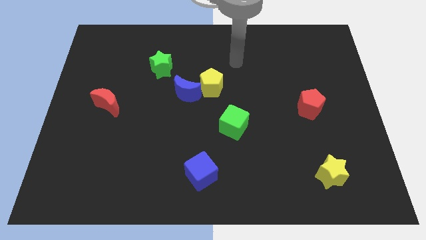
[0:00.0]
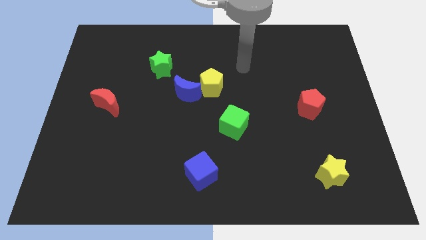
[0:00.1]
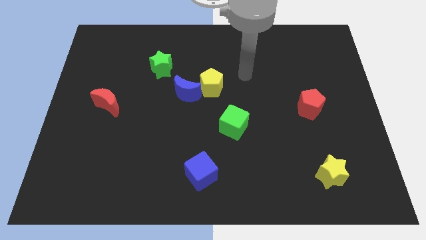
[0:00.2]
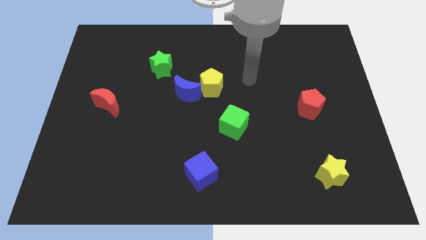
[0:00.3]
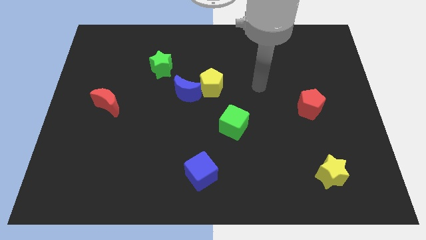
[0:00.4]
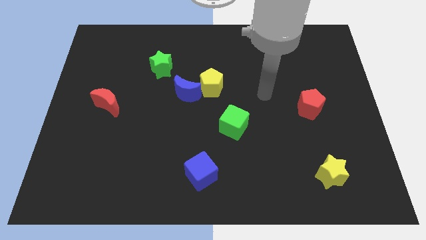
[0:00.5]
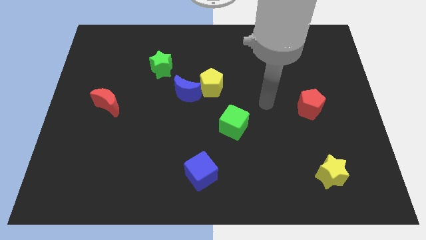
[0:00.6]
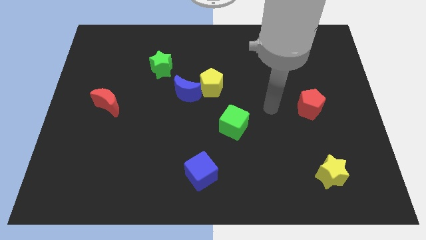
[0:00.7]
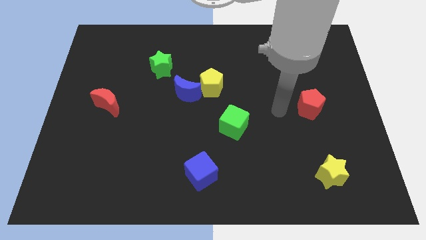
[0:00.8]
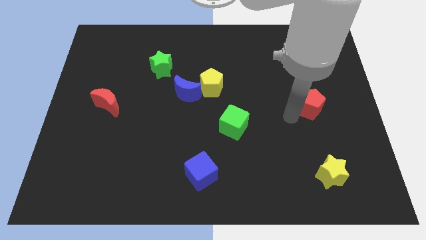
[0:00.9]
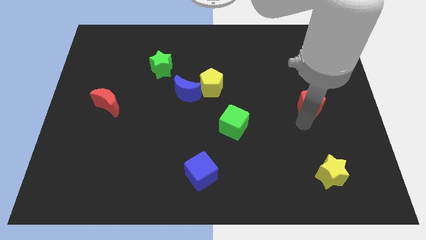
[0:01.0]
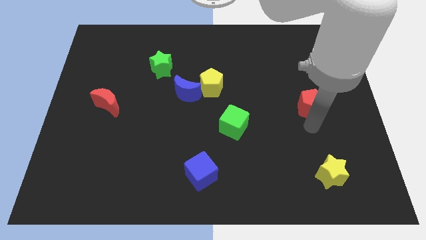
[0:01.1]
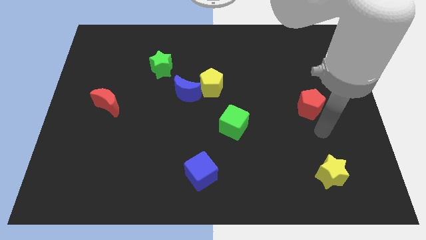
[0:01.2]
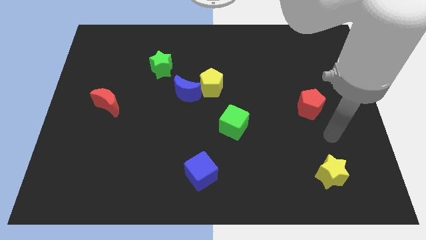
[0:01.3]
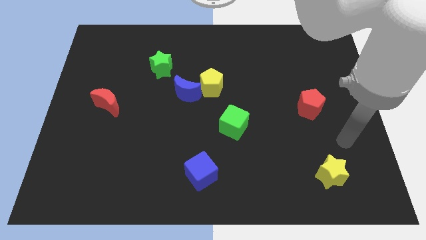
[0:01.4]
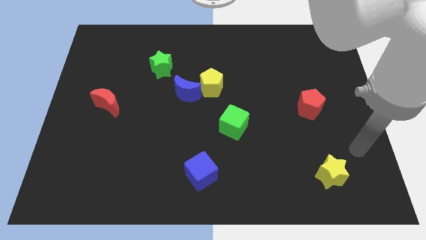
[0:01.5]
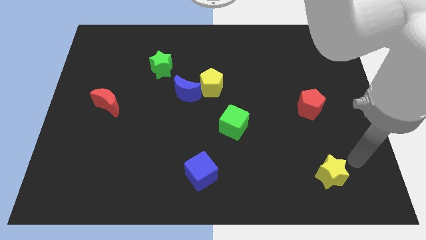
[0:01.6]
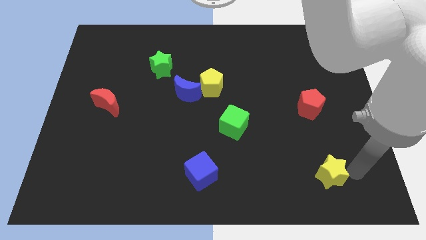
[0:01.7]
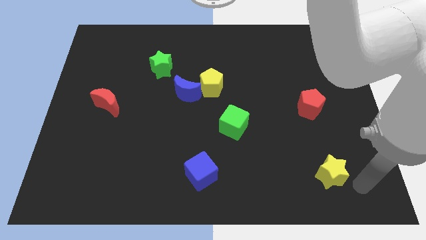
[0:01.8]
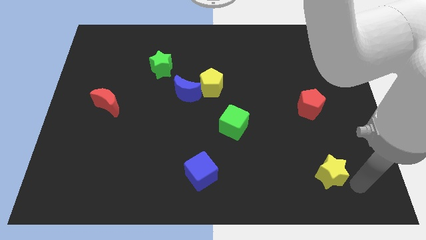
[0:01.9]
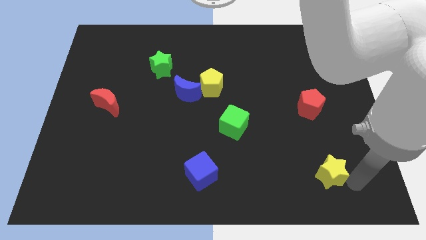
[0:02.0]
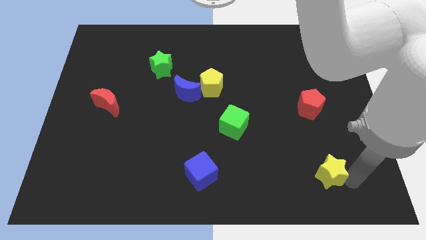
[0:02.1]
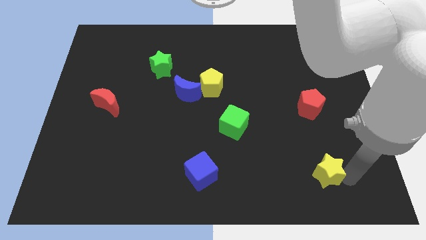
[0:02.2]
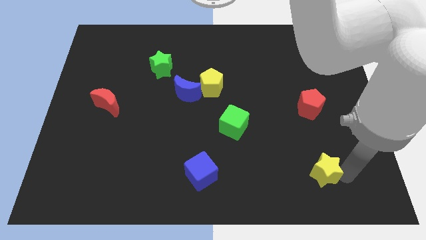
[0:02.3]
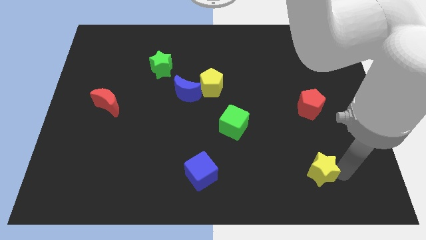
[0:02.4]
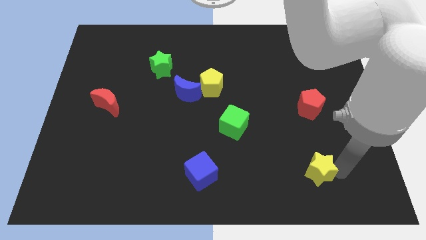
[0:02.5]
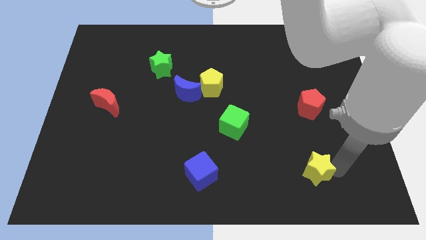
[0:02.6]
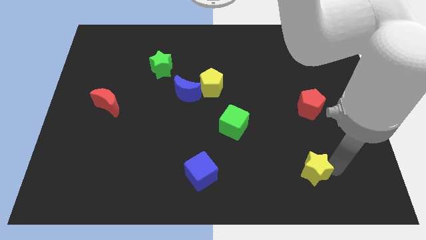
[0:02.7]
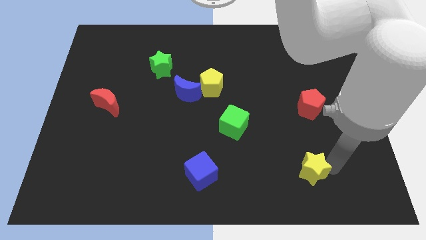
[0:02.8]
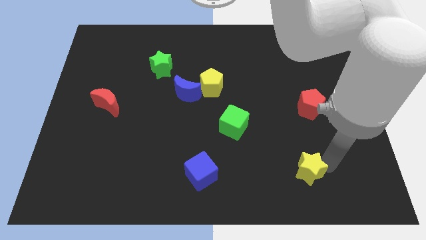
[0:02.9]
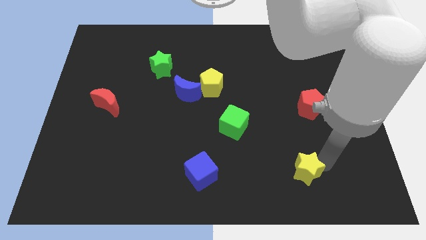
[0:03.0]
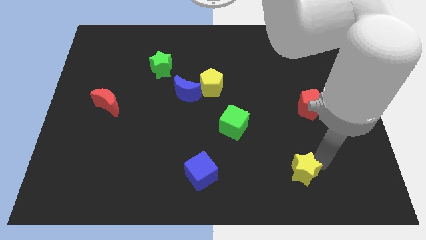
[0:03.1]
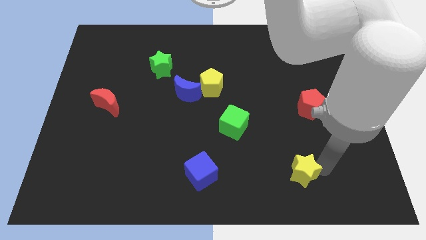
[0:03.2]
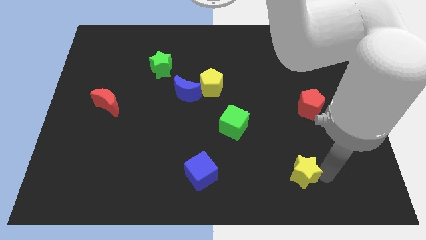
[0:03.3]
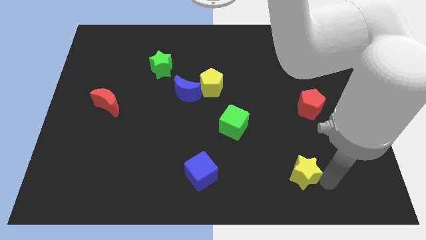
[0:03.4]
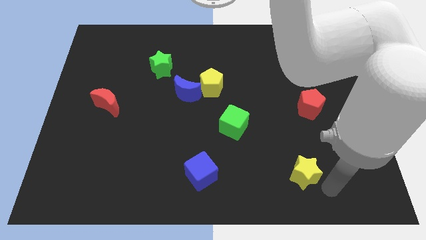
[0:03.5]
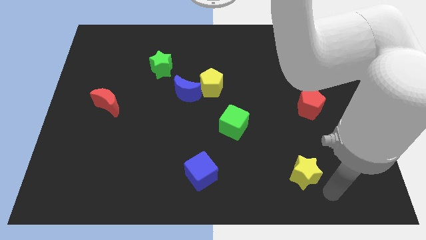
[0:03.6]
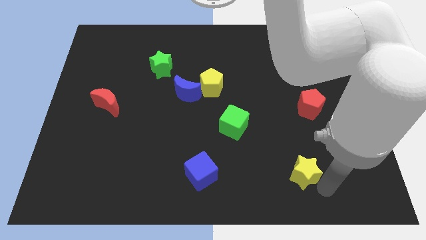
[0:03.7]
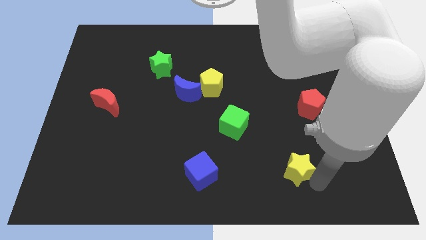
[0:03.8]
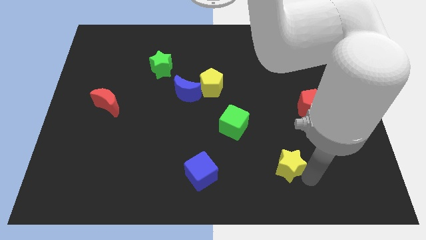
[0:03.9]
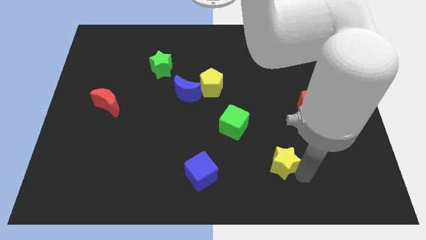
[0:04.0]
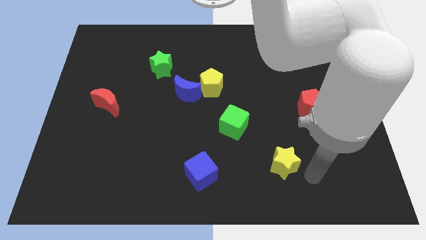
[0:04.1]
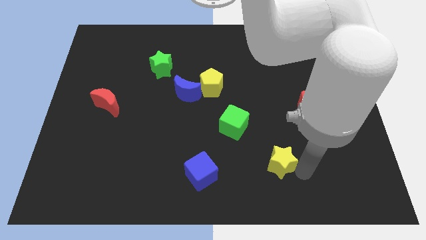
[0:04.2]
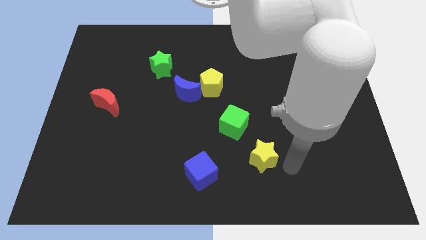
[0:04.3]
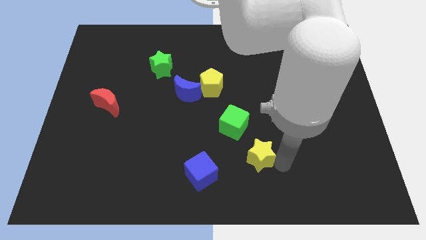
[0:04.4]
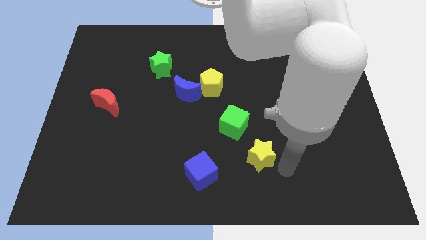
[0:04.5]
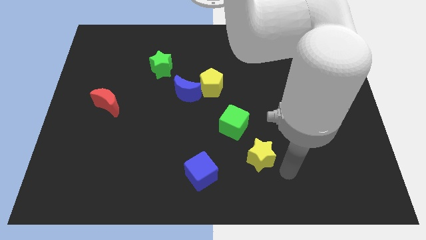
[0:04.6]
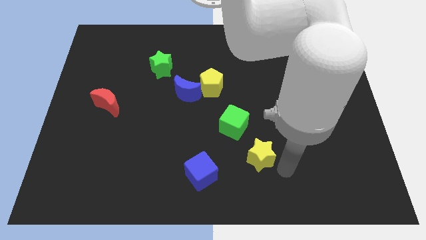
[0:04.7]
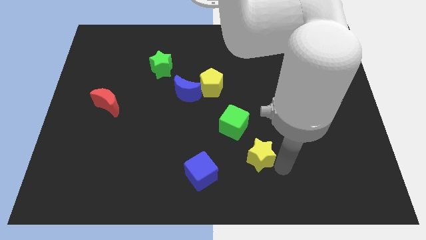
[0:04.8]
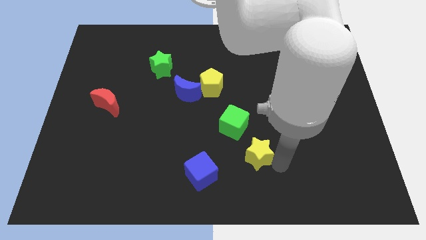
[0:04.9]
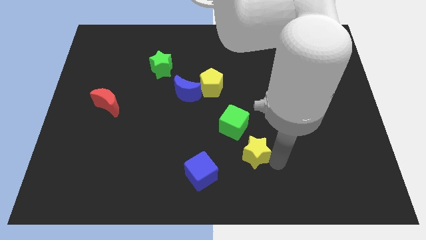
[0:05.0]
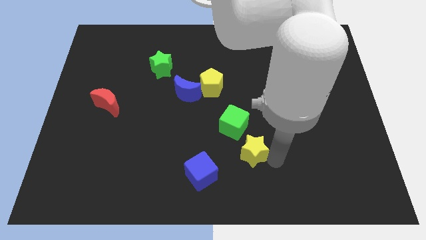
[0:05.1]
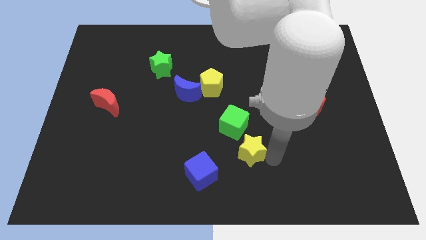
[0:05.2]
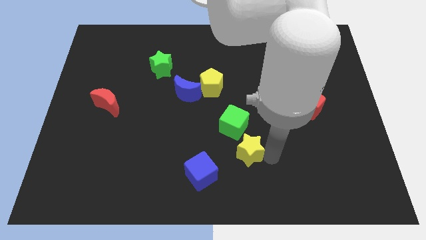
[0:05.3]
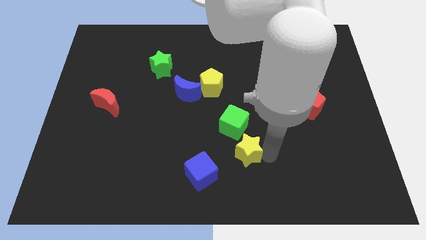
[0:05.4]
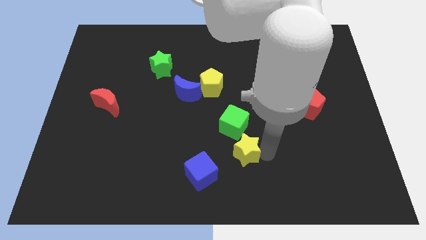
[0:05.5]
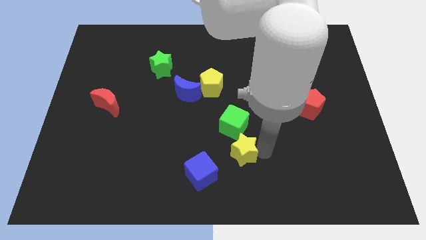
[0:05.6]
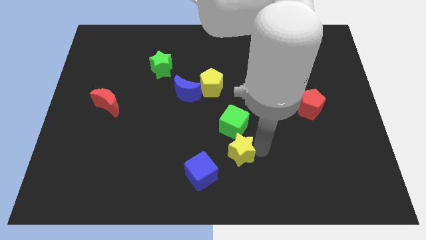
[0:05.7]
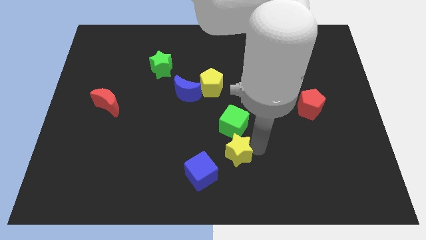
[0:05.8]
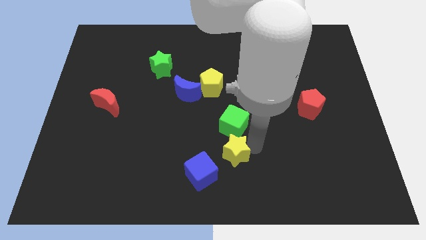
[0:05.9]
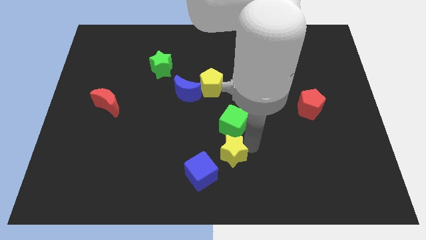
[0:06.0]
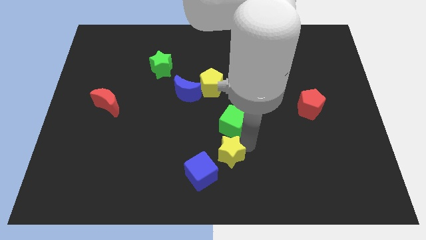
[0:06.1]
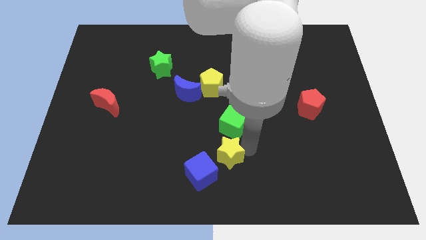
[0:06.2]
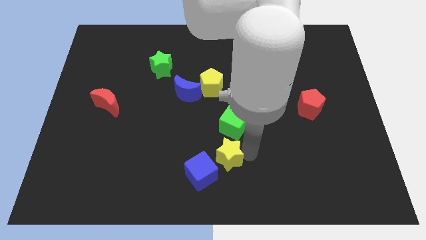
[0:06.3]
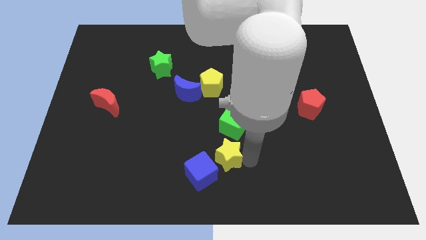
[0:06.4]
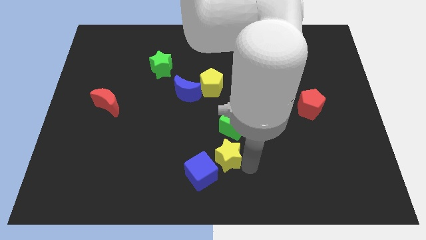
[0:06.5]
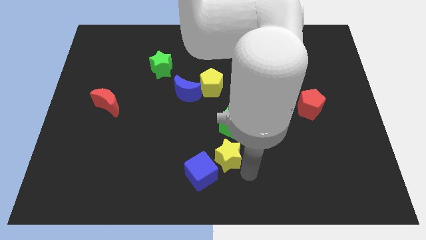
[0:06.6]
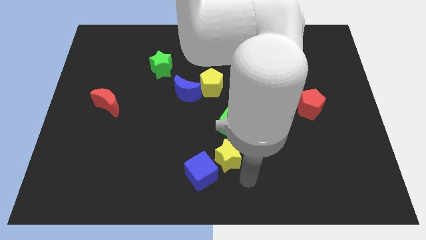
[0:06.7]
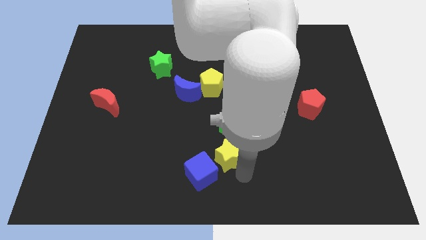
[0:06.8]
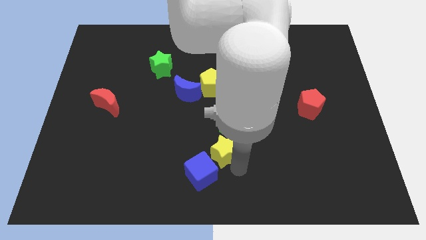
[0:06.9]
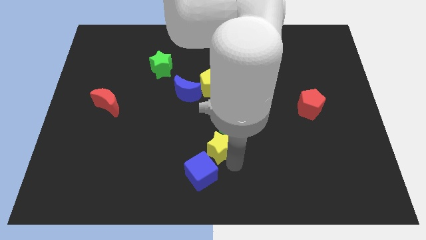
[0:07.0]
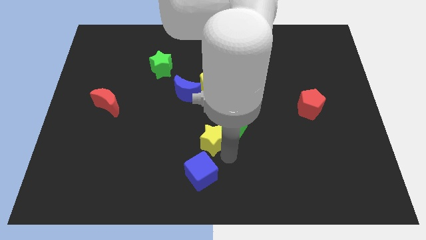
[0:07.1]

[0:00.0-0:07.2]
put the yellow star just left of the green cube

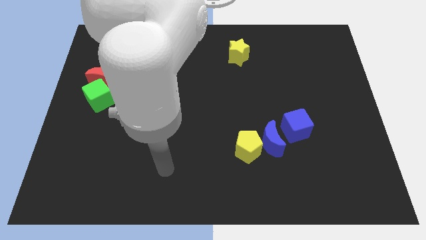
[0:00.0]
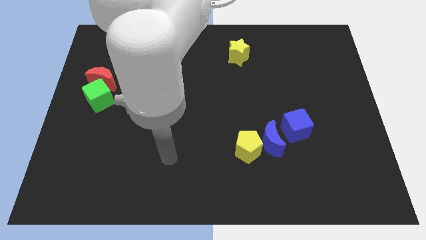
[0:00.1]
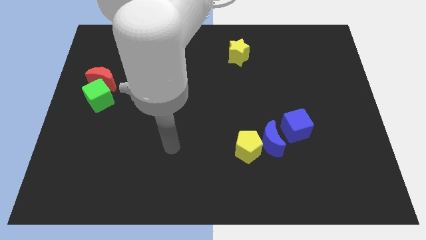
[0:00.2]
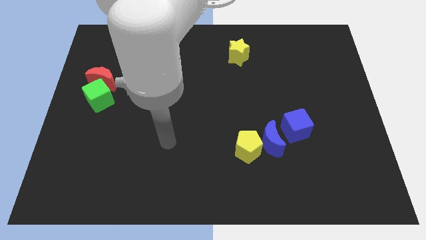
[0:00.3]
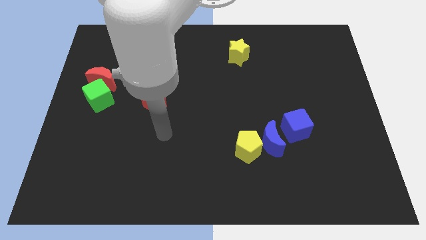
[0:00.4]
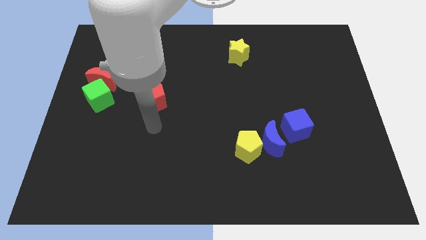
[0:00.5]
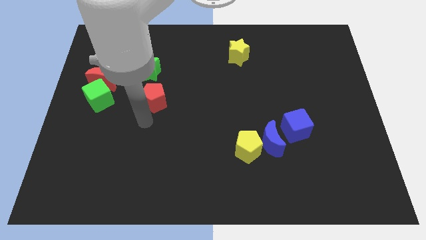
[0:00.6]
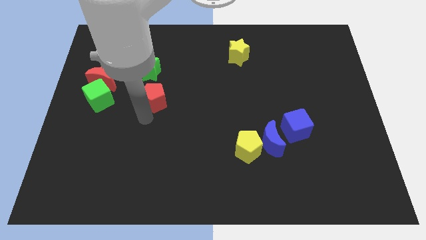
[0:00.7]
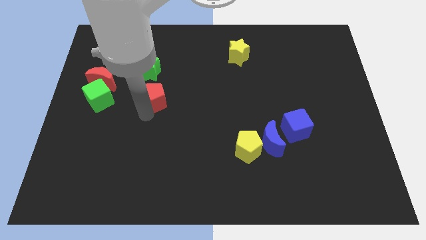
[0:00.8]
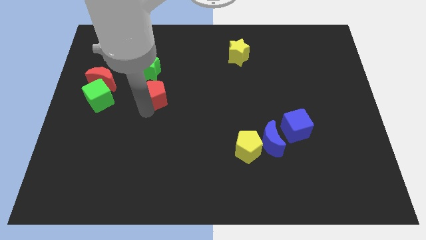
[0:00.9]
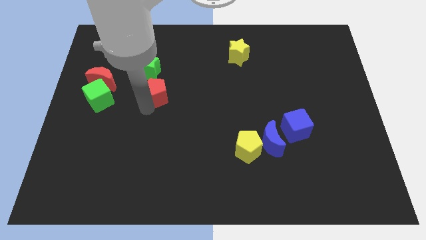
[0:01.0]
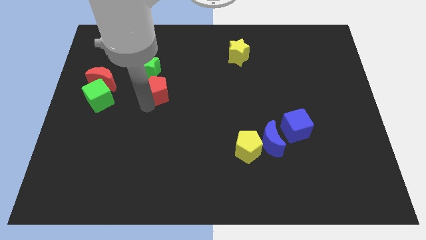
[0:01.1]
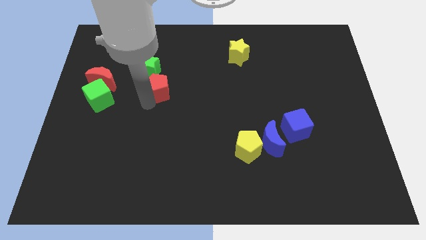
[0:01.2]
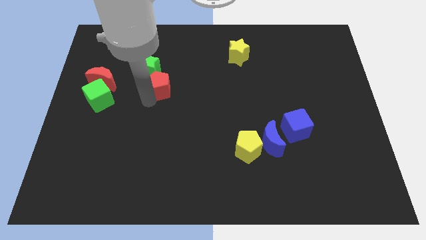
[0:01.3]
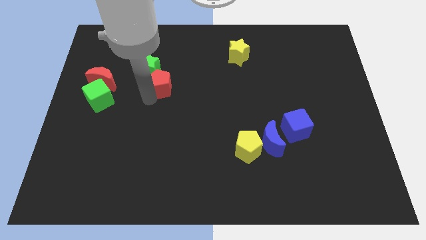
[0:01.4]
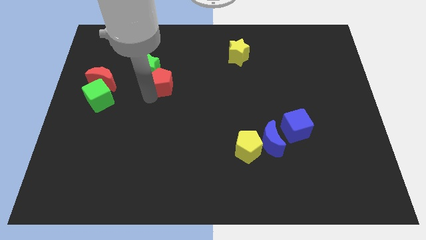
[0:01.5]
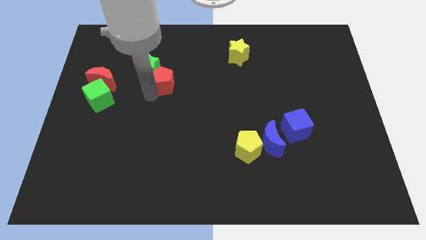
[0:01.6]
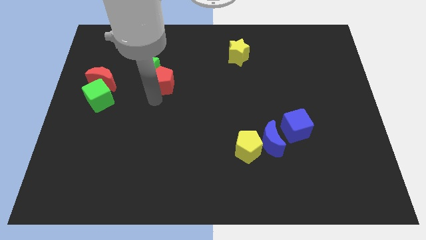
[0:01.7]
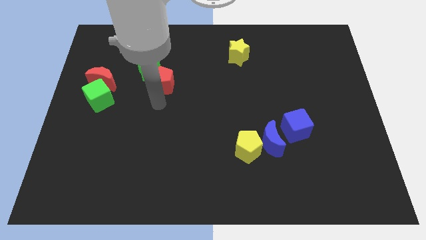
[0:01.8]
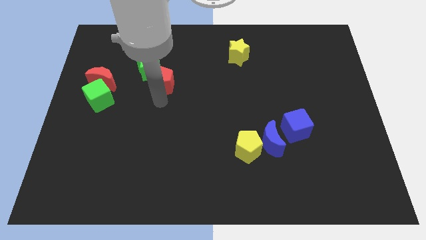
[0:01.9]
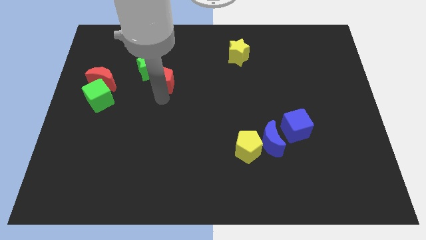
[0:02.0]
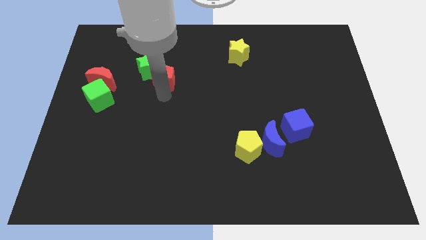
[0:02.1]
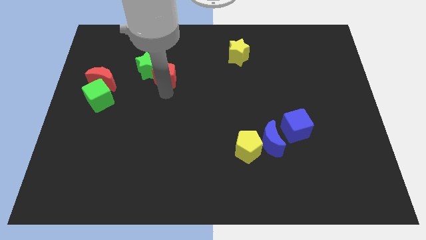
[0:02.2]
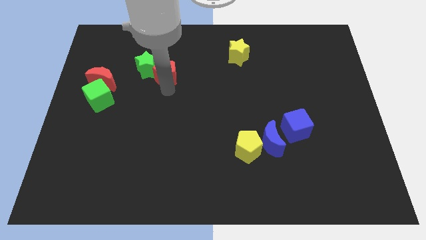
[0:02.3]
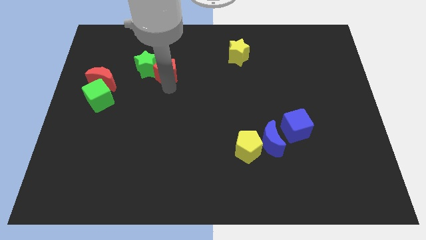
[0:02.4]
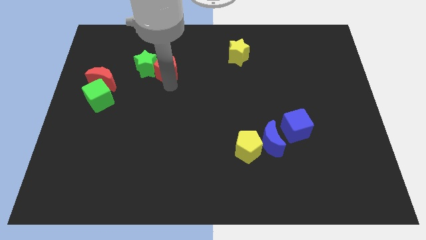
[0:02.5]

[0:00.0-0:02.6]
move the red pentagon to the top right of the green star
